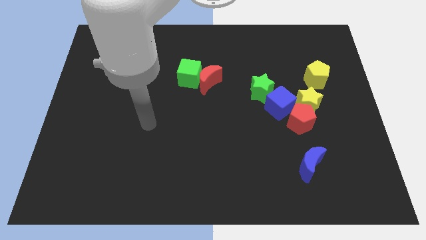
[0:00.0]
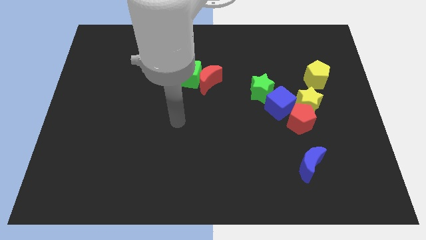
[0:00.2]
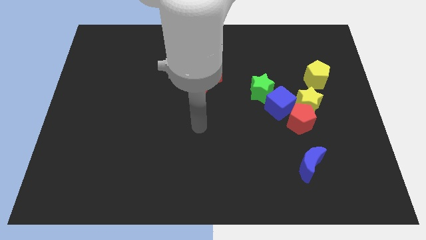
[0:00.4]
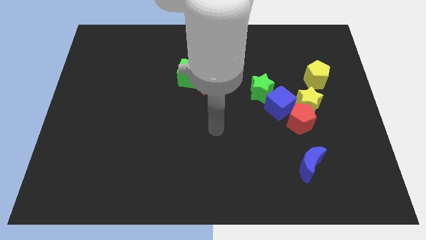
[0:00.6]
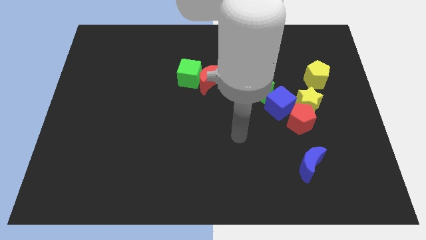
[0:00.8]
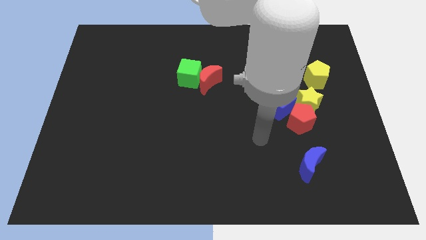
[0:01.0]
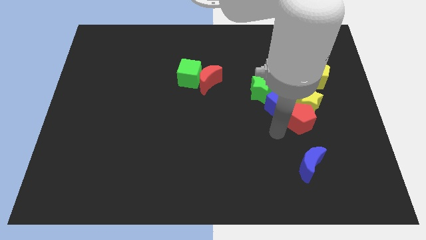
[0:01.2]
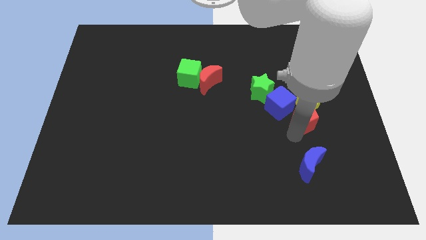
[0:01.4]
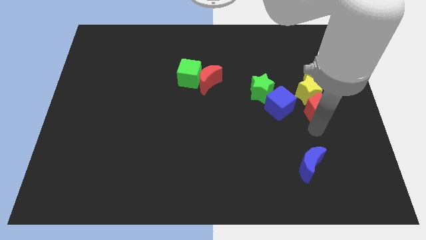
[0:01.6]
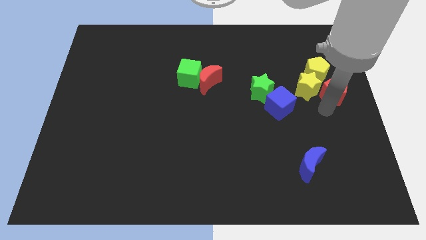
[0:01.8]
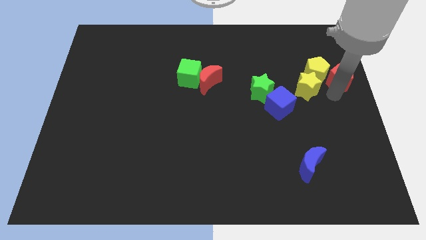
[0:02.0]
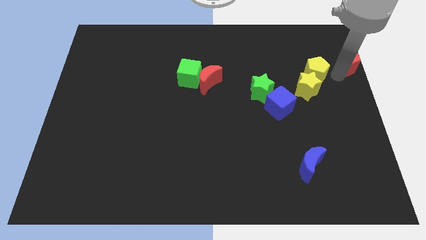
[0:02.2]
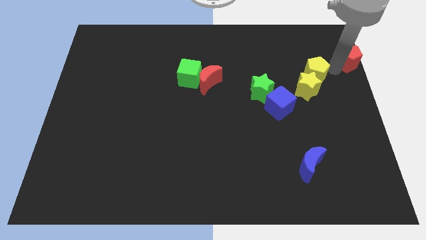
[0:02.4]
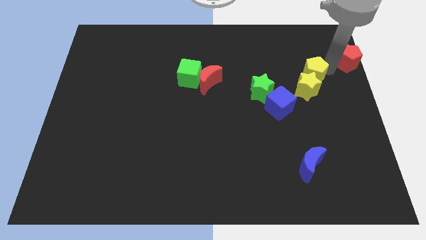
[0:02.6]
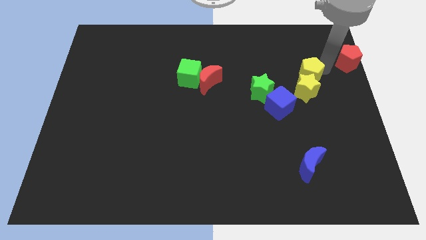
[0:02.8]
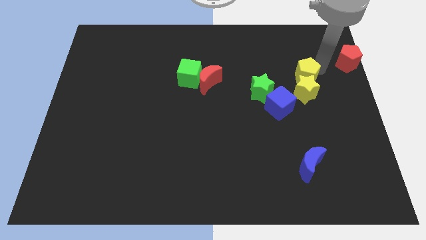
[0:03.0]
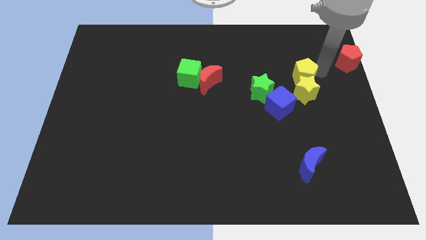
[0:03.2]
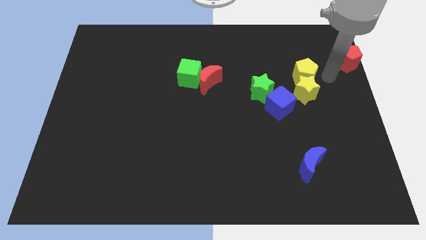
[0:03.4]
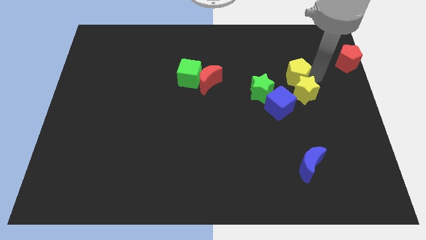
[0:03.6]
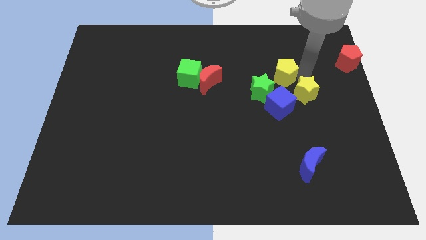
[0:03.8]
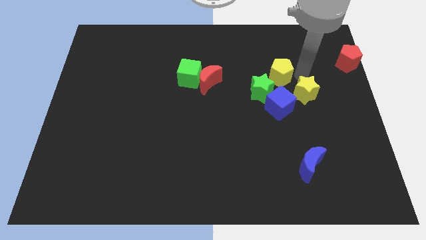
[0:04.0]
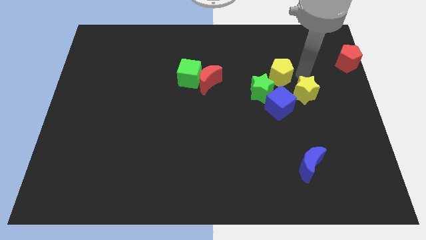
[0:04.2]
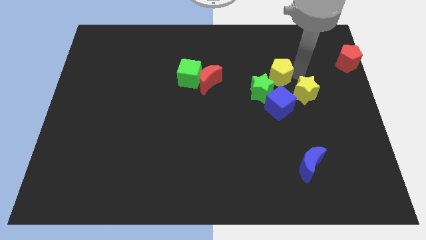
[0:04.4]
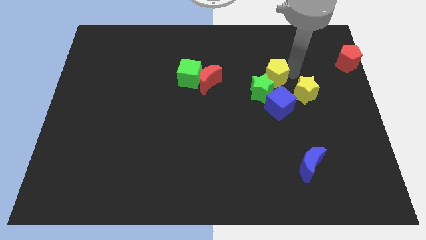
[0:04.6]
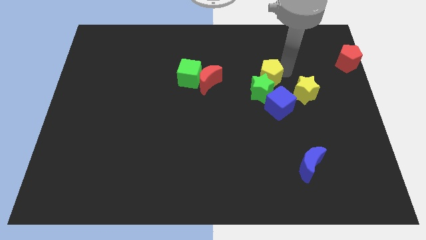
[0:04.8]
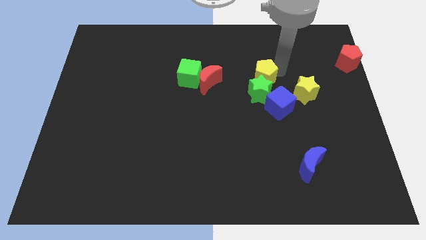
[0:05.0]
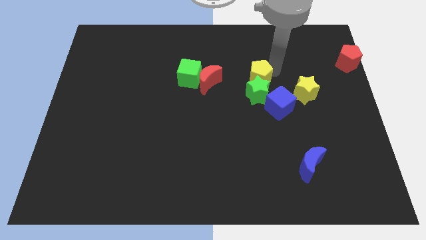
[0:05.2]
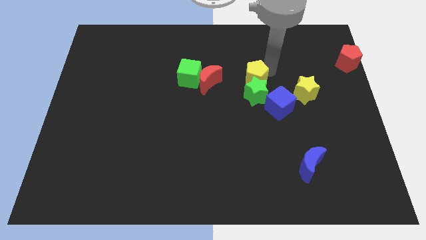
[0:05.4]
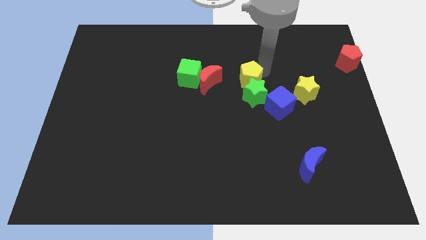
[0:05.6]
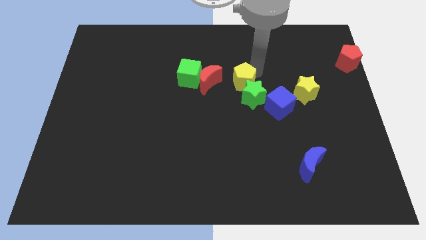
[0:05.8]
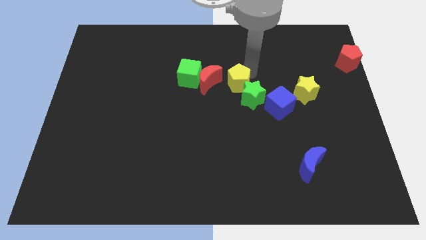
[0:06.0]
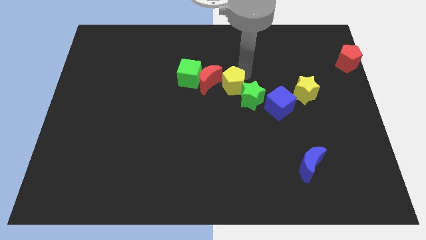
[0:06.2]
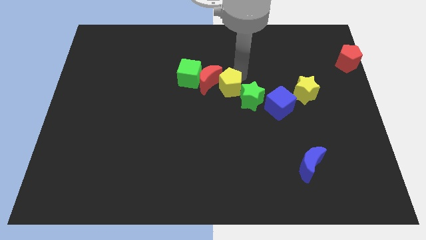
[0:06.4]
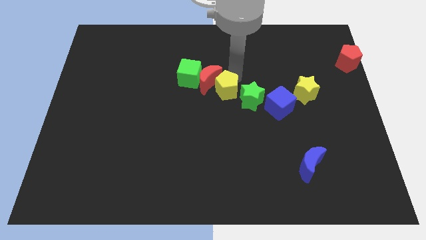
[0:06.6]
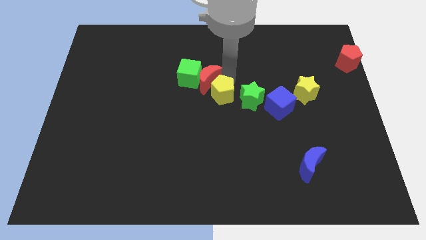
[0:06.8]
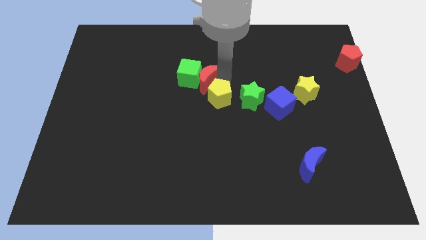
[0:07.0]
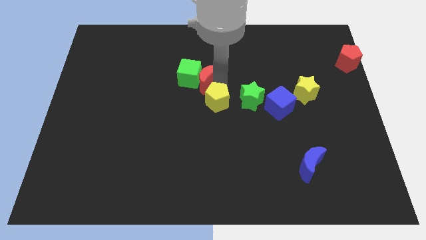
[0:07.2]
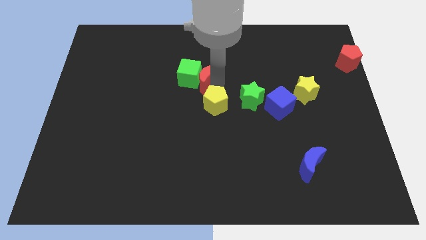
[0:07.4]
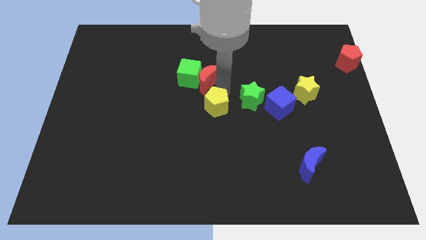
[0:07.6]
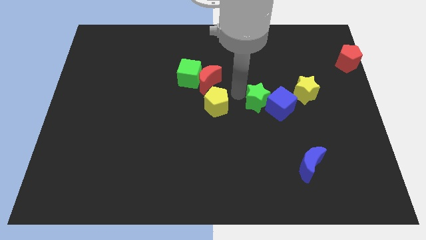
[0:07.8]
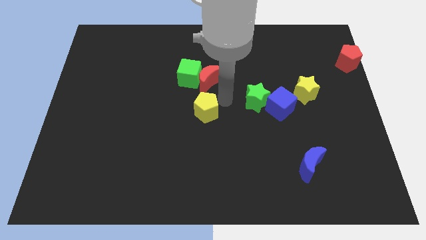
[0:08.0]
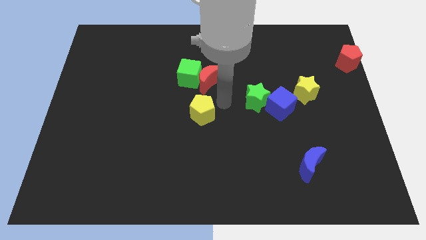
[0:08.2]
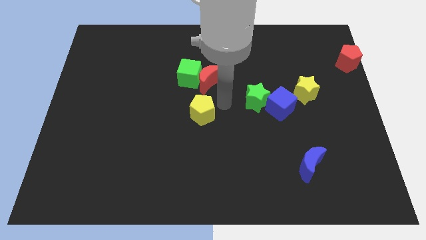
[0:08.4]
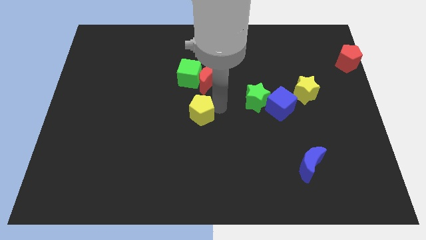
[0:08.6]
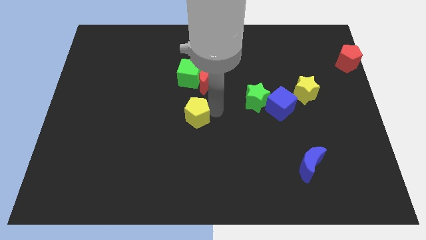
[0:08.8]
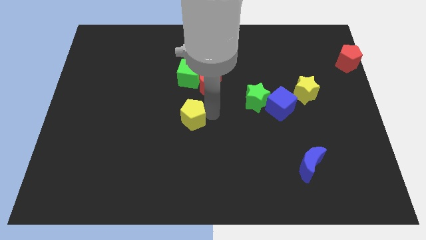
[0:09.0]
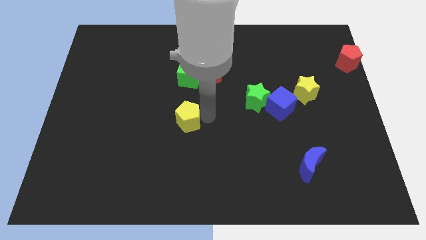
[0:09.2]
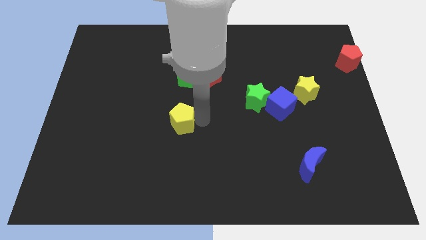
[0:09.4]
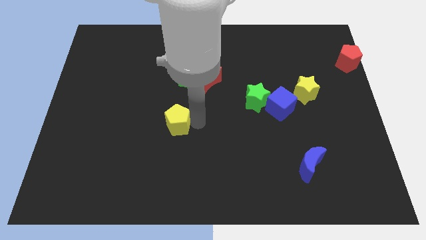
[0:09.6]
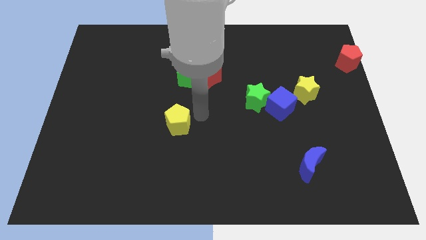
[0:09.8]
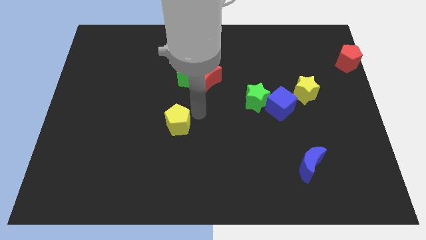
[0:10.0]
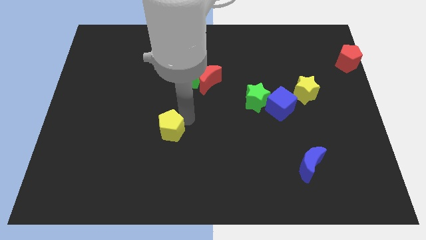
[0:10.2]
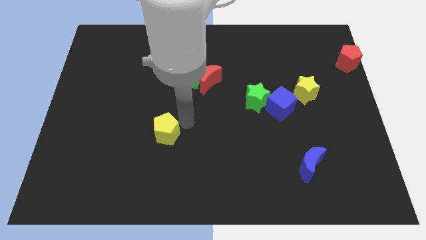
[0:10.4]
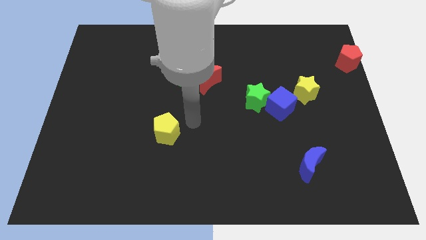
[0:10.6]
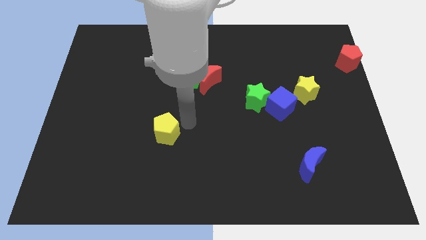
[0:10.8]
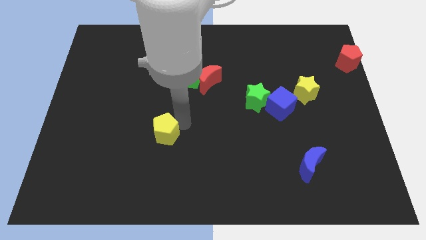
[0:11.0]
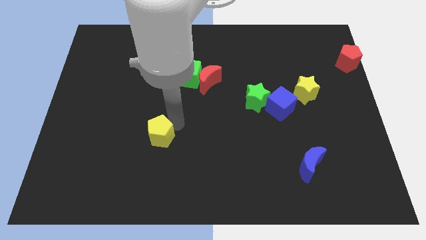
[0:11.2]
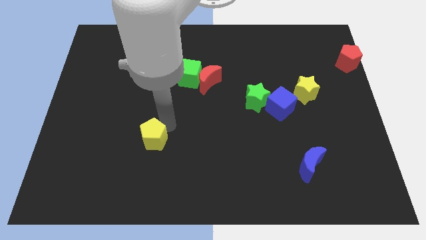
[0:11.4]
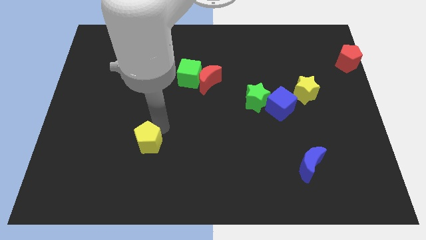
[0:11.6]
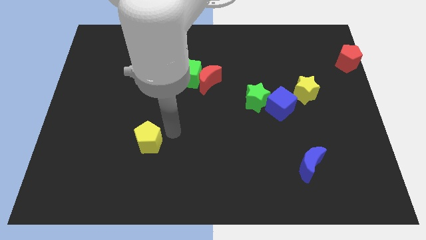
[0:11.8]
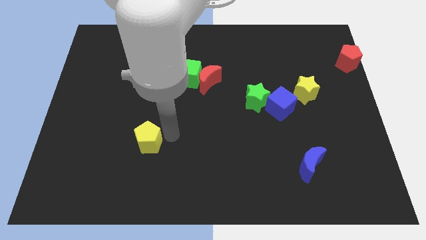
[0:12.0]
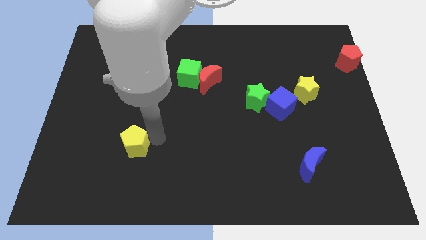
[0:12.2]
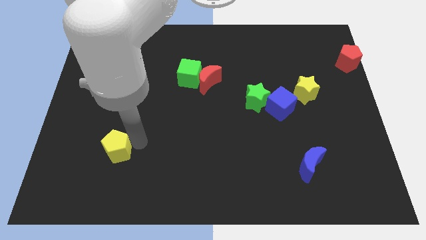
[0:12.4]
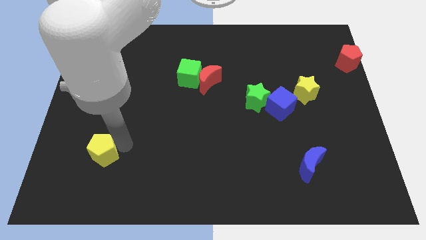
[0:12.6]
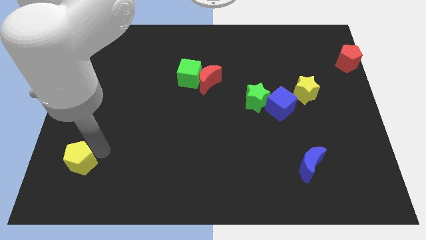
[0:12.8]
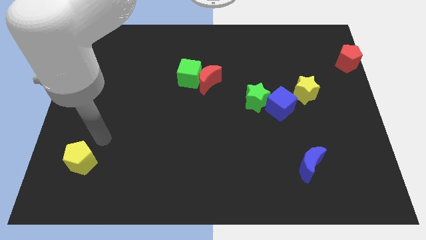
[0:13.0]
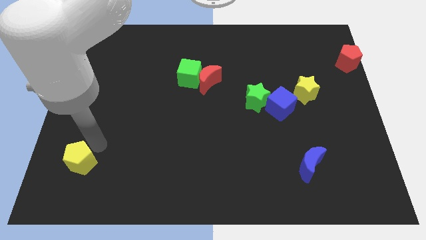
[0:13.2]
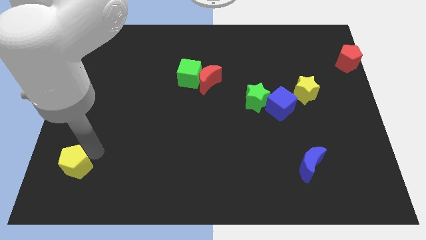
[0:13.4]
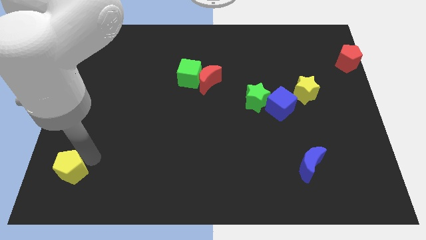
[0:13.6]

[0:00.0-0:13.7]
move the yellow pentagon to the bottom left corner
